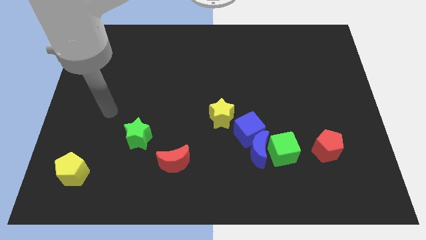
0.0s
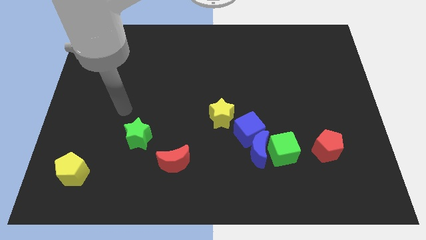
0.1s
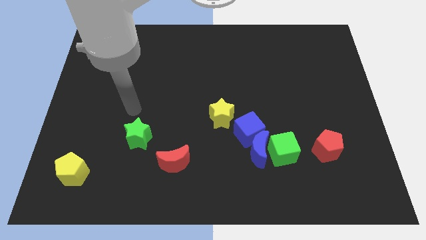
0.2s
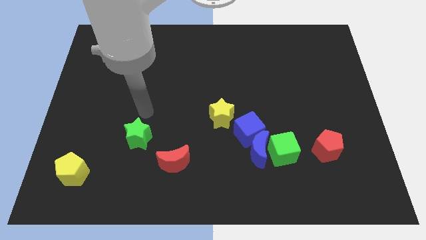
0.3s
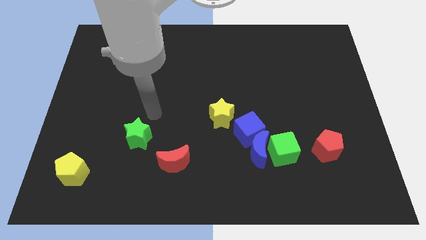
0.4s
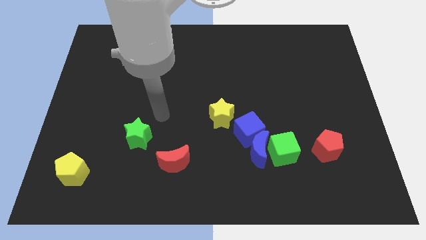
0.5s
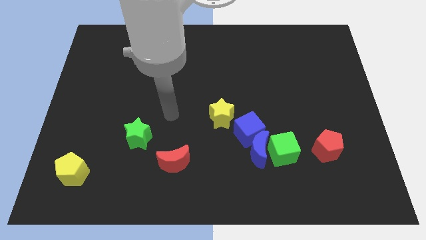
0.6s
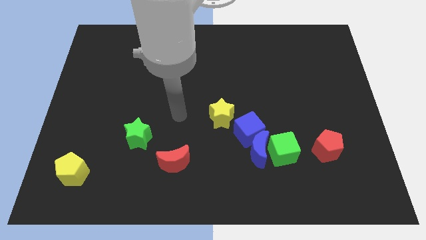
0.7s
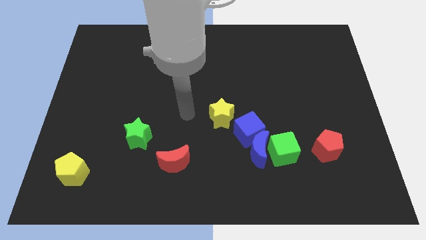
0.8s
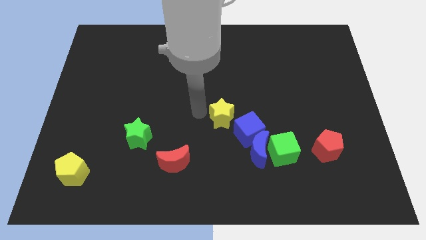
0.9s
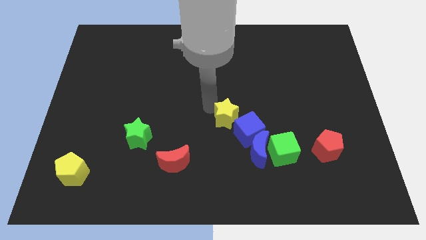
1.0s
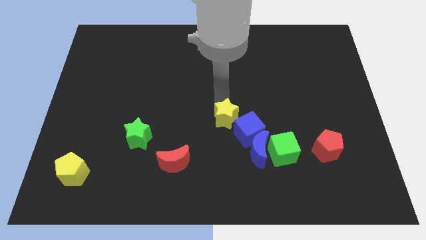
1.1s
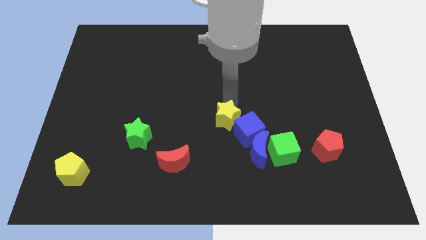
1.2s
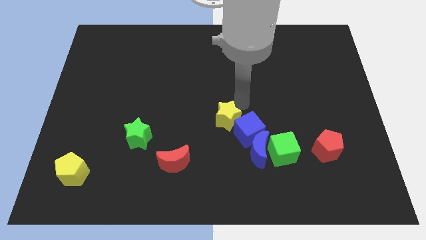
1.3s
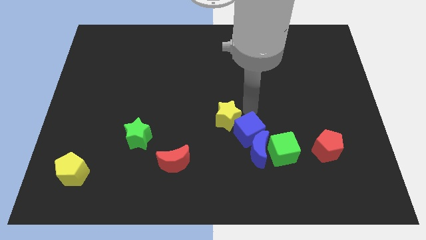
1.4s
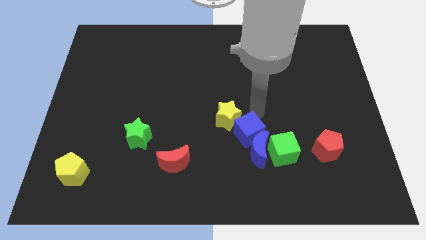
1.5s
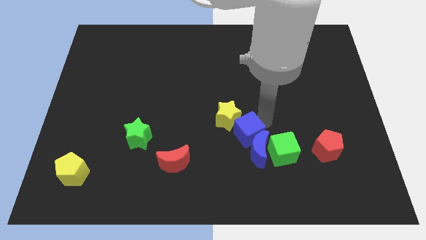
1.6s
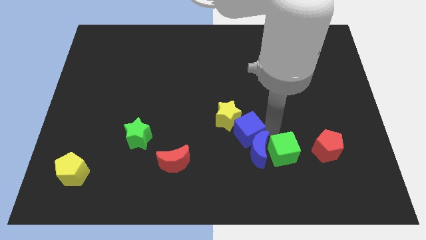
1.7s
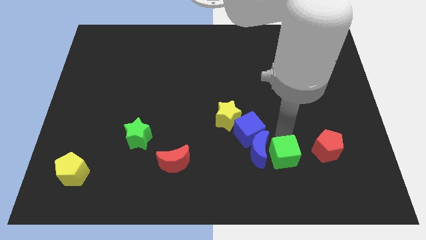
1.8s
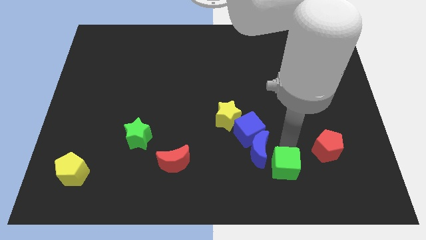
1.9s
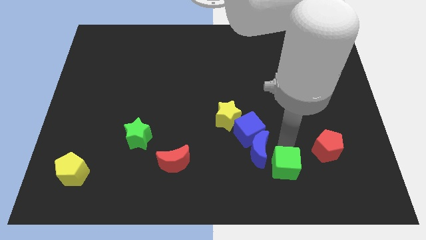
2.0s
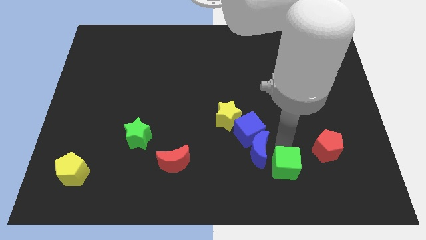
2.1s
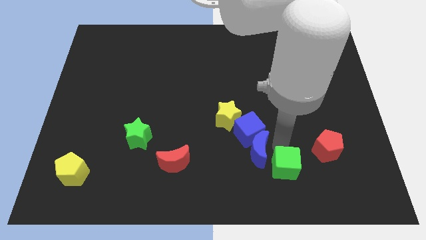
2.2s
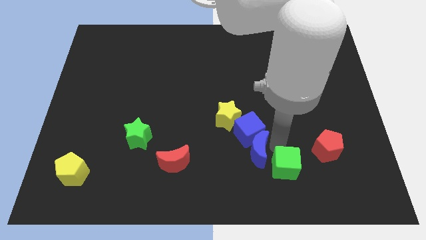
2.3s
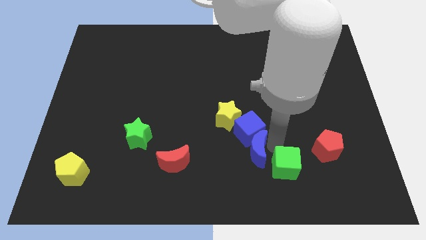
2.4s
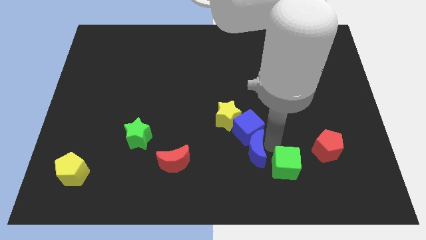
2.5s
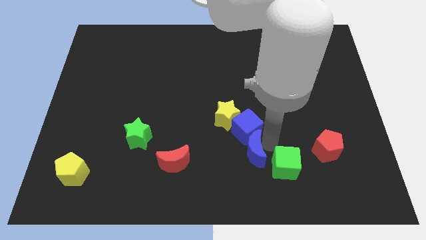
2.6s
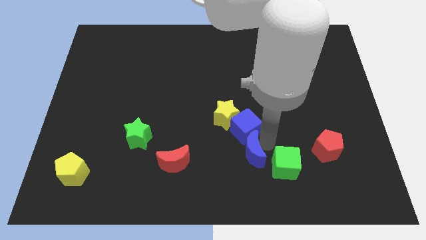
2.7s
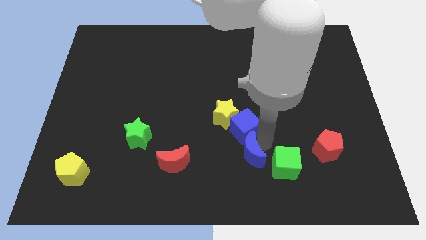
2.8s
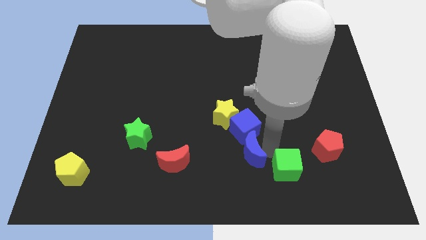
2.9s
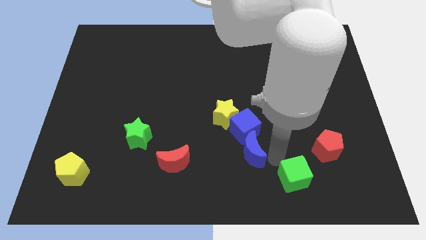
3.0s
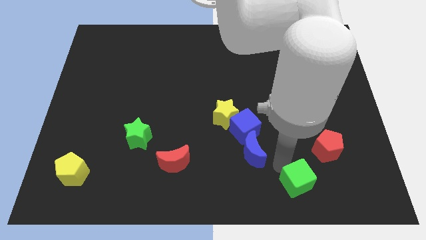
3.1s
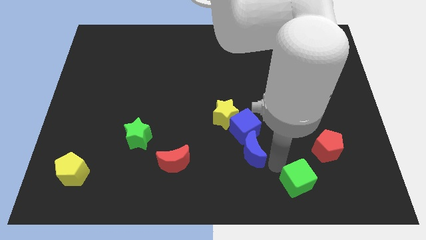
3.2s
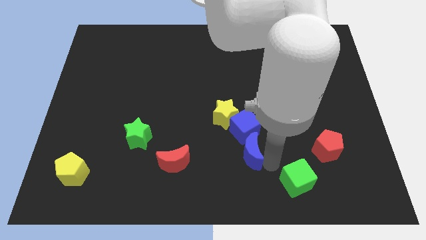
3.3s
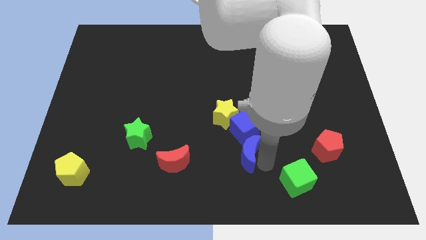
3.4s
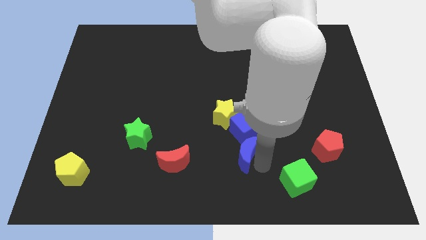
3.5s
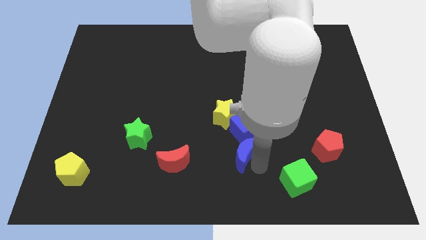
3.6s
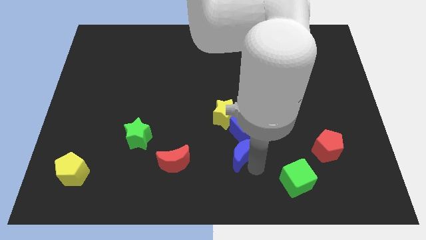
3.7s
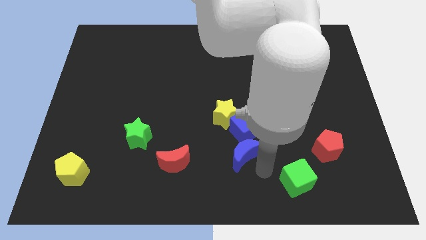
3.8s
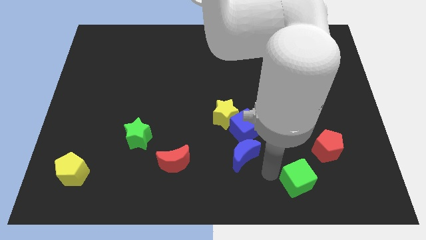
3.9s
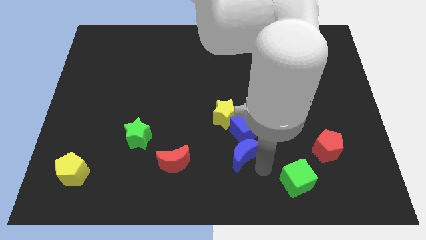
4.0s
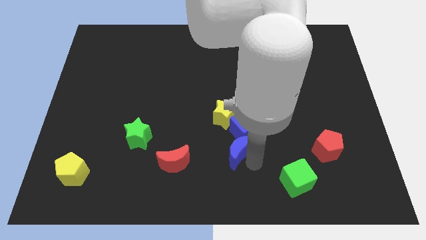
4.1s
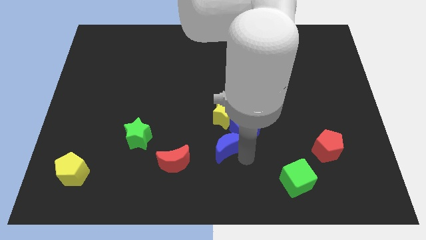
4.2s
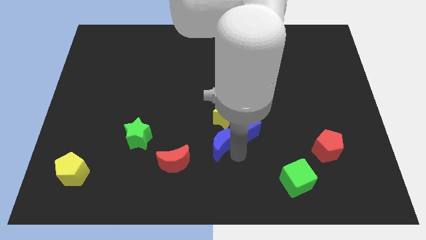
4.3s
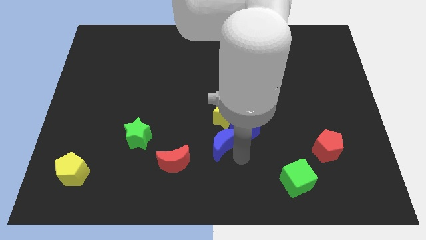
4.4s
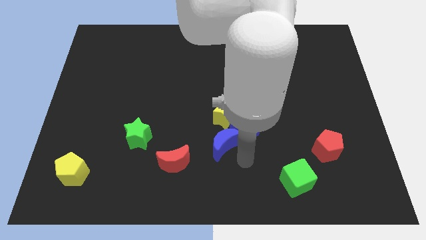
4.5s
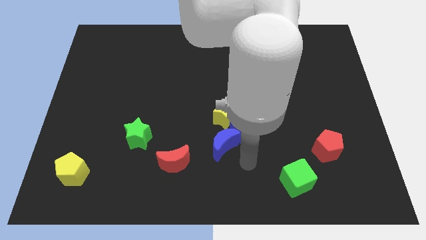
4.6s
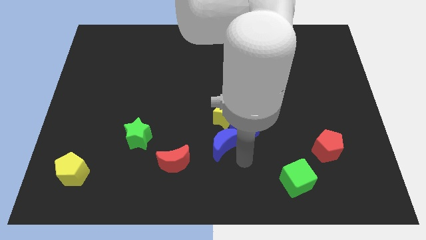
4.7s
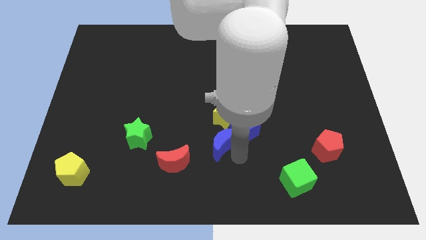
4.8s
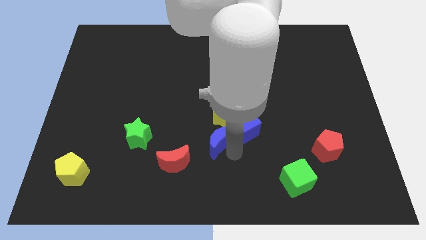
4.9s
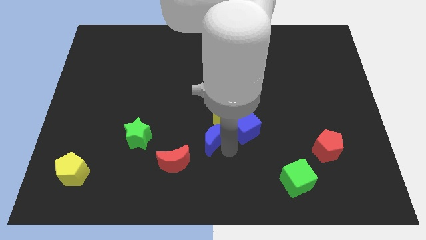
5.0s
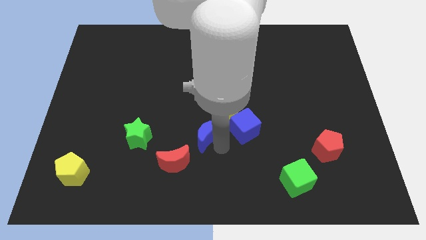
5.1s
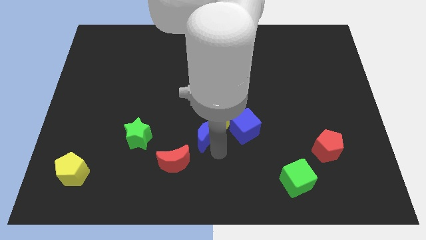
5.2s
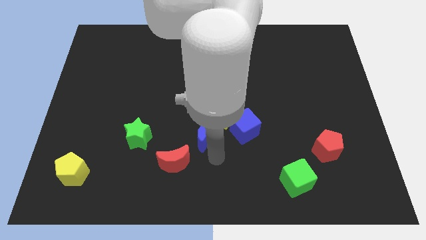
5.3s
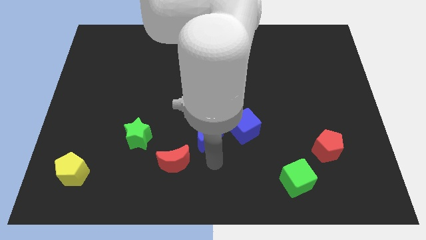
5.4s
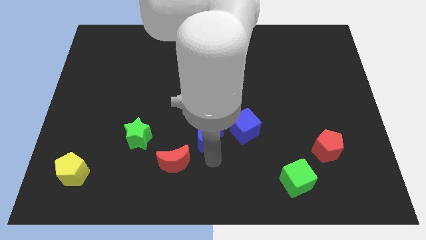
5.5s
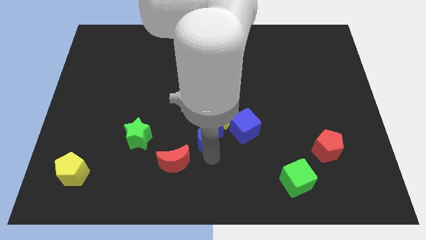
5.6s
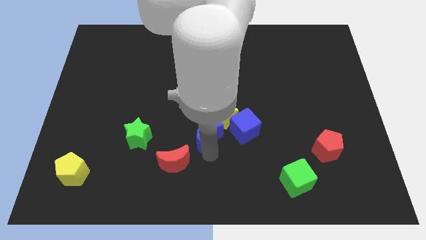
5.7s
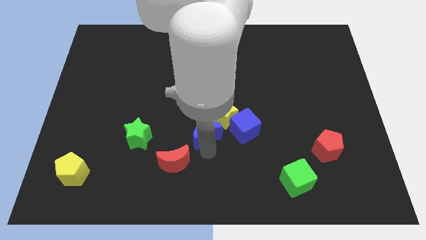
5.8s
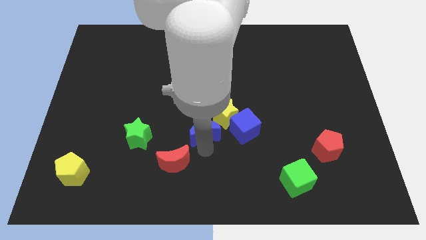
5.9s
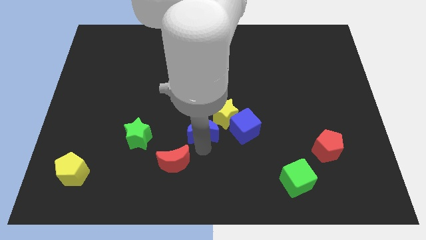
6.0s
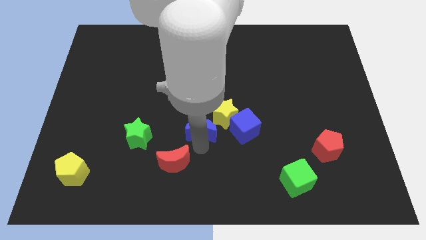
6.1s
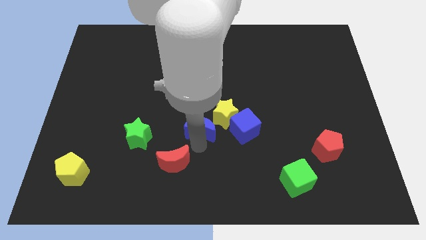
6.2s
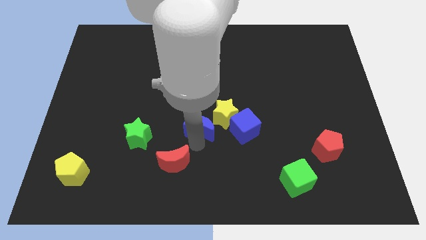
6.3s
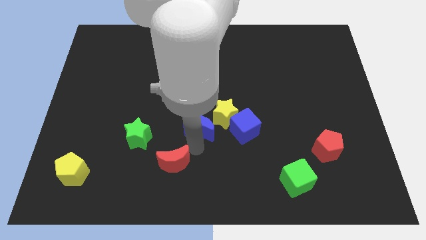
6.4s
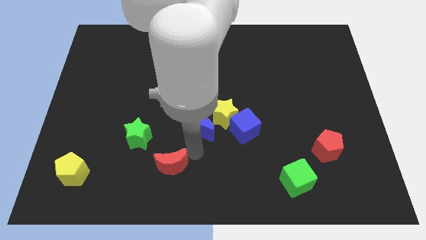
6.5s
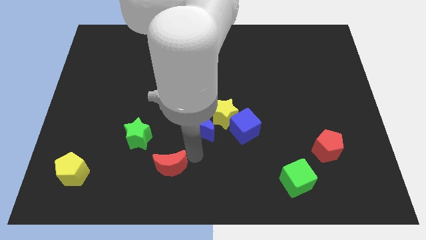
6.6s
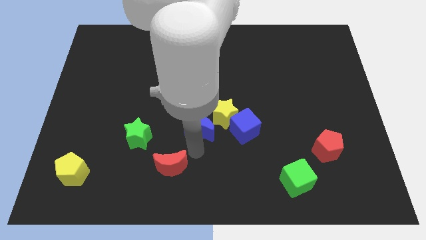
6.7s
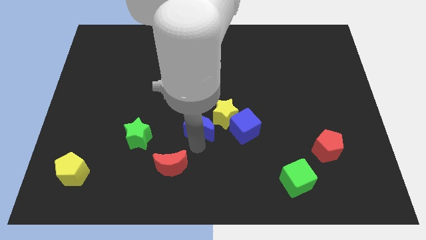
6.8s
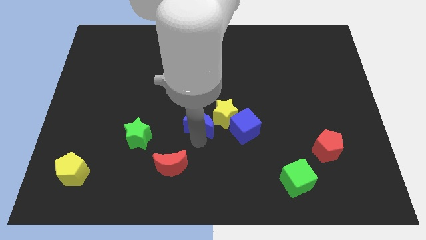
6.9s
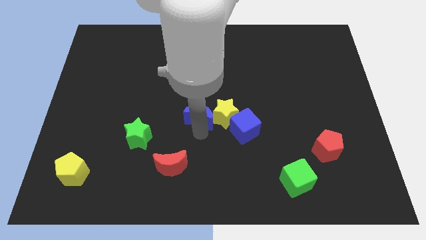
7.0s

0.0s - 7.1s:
push the blue moon diagonally up and to the left of the yellow star
